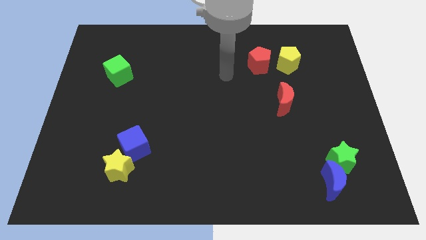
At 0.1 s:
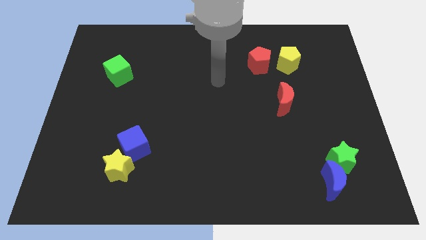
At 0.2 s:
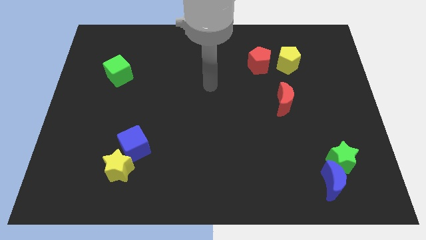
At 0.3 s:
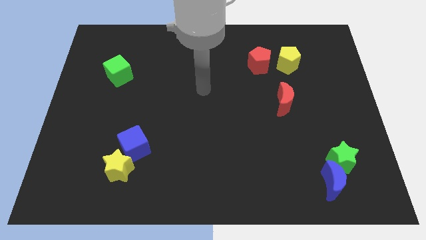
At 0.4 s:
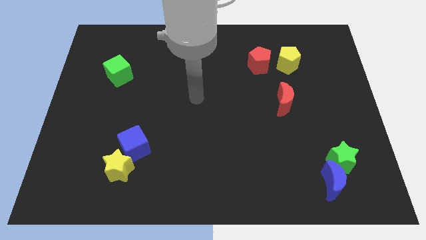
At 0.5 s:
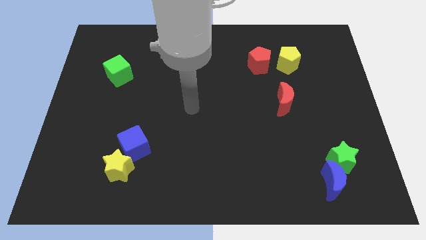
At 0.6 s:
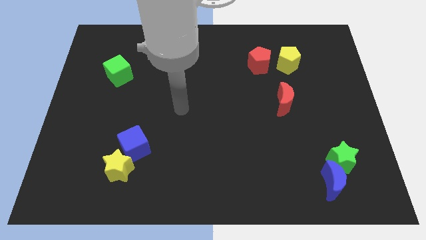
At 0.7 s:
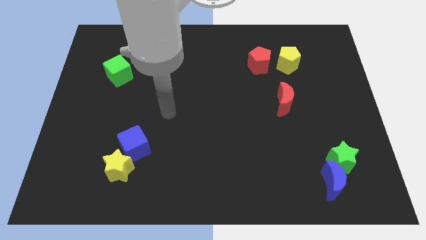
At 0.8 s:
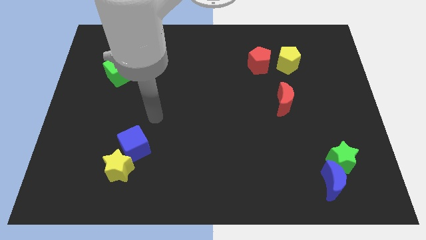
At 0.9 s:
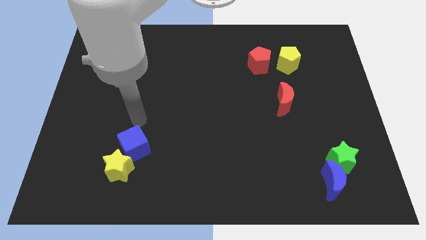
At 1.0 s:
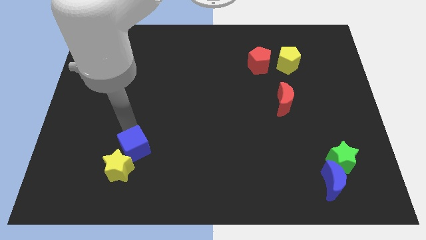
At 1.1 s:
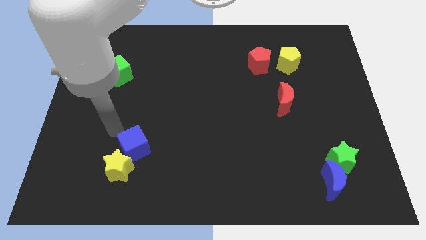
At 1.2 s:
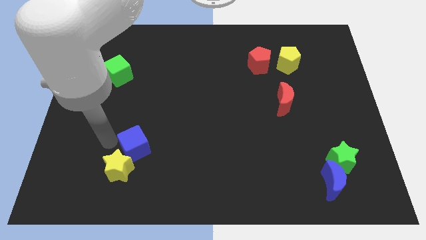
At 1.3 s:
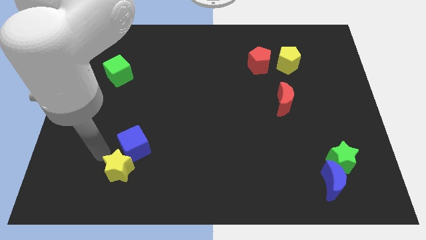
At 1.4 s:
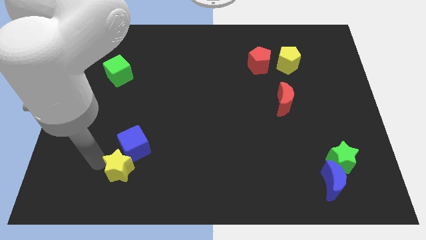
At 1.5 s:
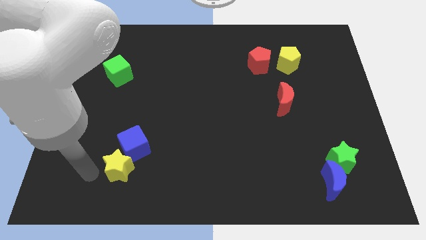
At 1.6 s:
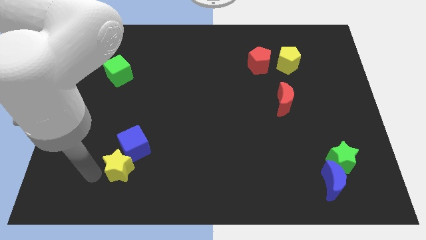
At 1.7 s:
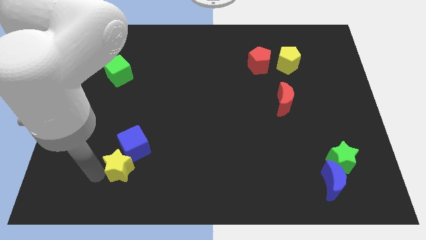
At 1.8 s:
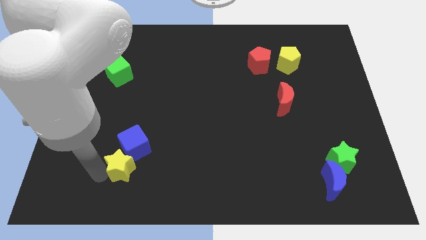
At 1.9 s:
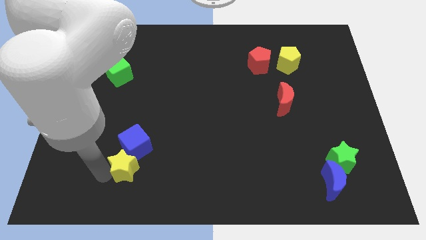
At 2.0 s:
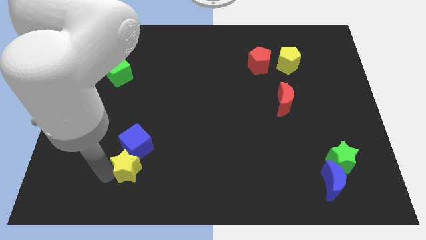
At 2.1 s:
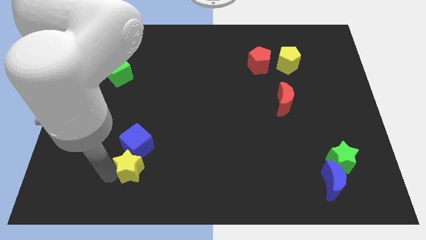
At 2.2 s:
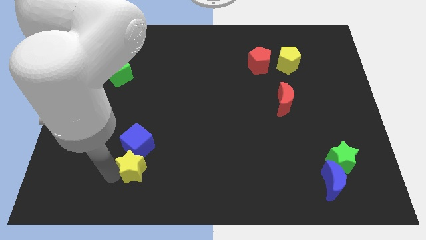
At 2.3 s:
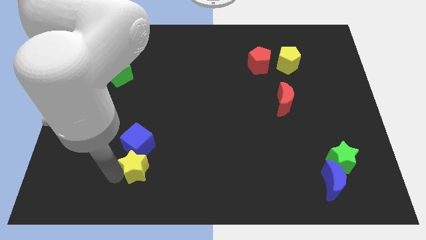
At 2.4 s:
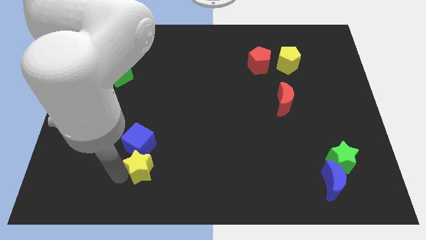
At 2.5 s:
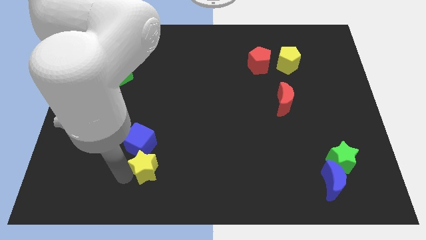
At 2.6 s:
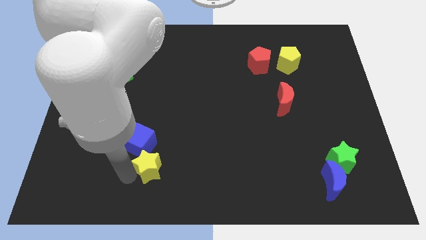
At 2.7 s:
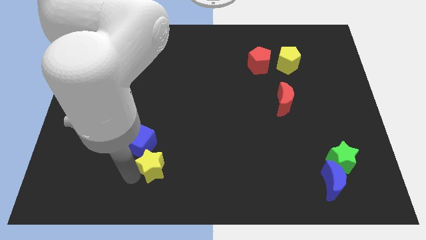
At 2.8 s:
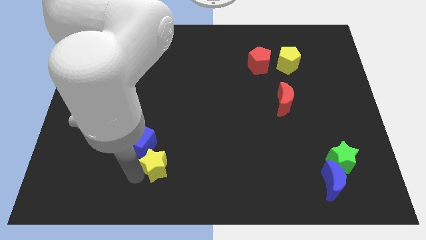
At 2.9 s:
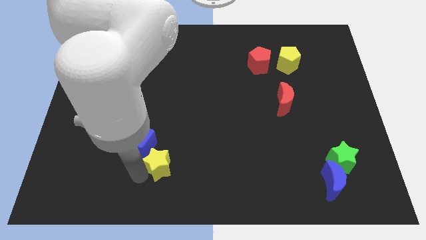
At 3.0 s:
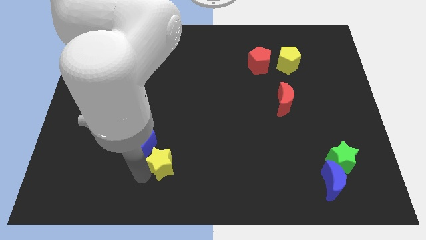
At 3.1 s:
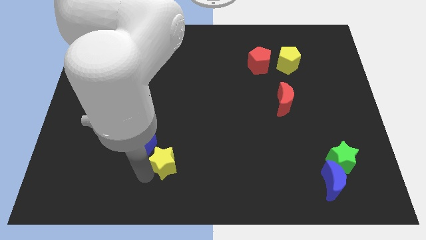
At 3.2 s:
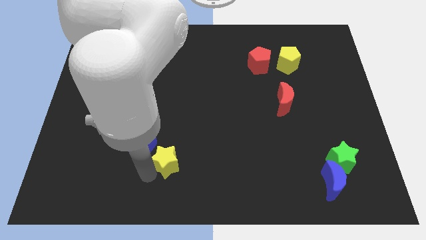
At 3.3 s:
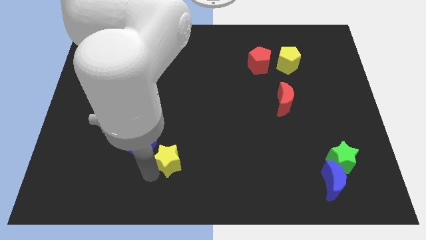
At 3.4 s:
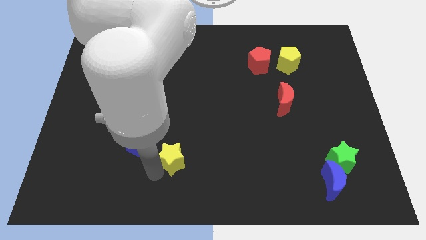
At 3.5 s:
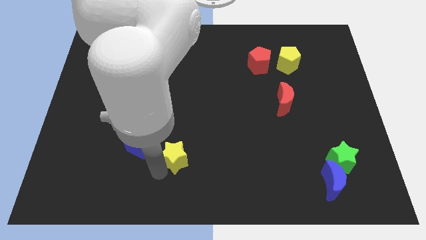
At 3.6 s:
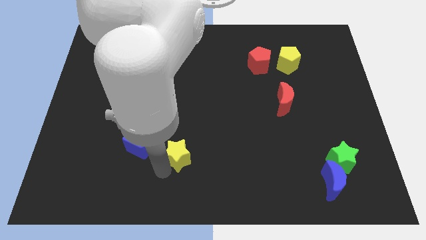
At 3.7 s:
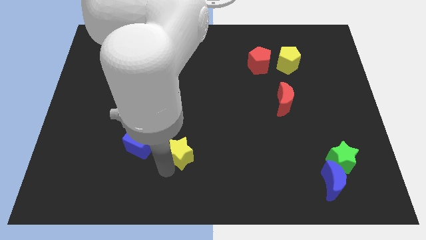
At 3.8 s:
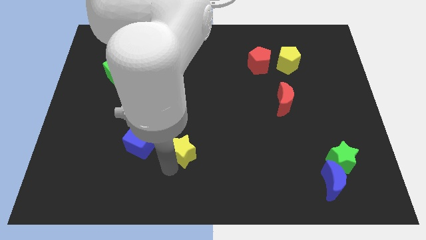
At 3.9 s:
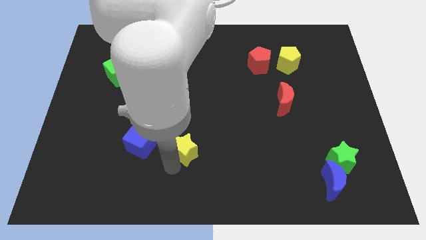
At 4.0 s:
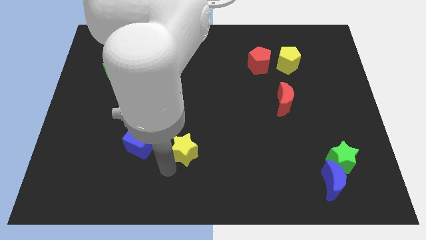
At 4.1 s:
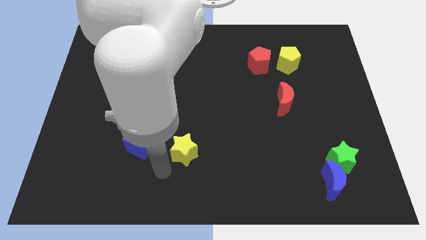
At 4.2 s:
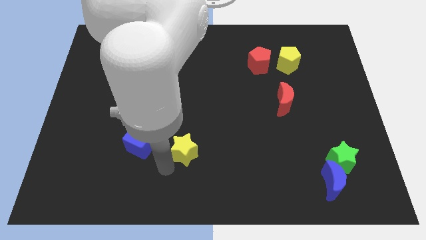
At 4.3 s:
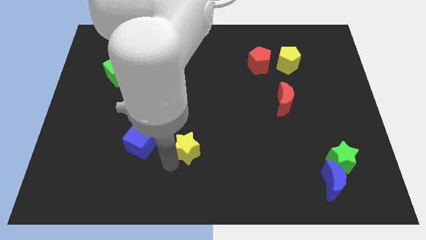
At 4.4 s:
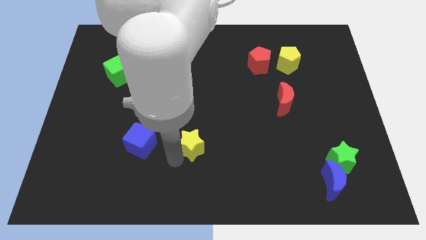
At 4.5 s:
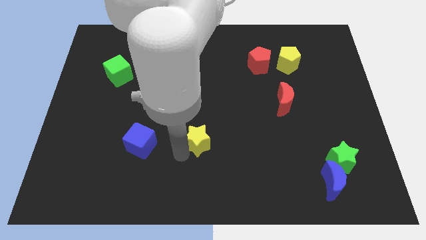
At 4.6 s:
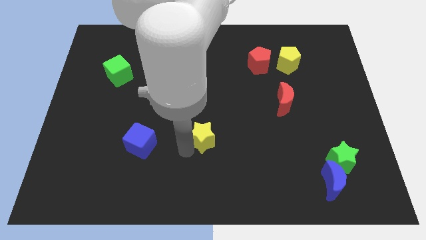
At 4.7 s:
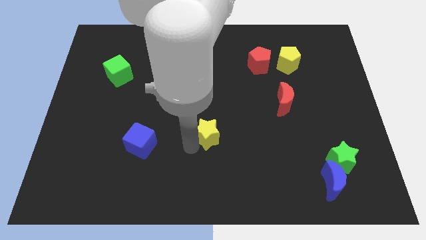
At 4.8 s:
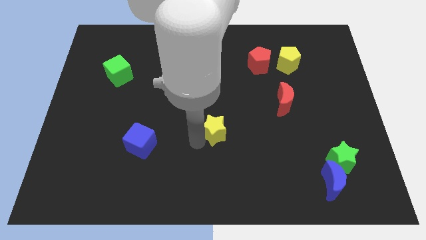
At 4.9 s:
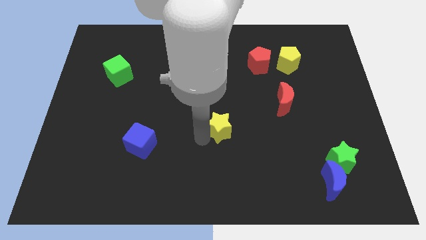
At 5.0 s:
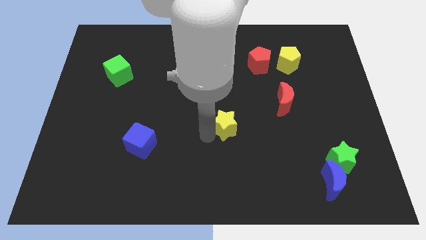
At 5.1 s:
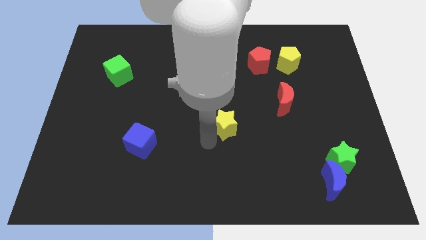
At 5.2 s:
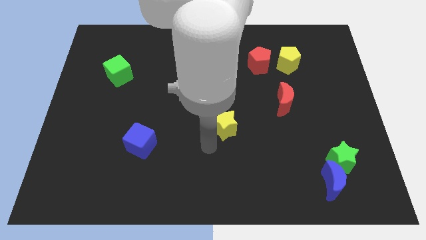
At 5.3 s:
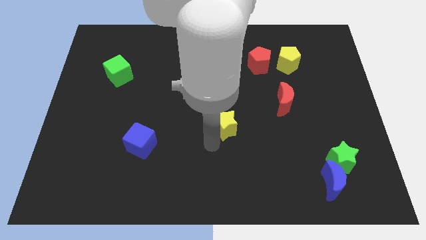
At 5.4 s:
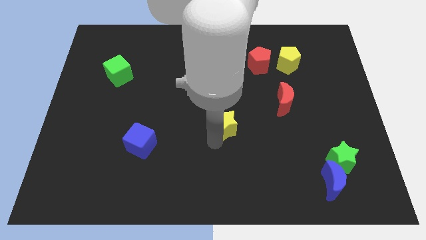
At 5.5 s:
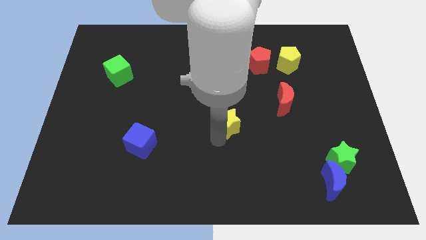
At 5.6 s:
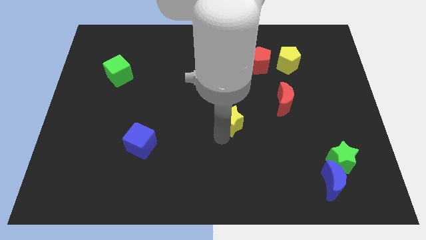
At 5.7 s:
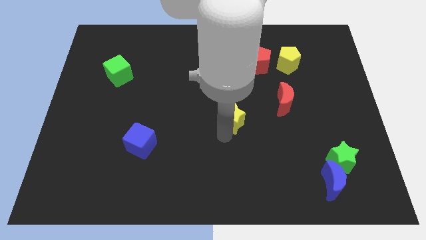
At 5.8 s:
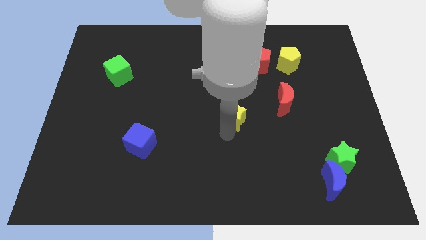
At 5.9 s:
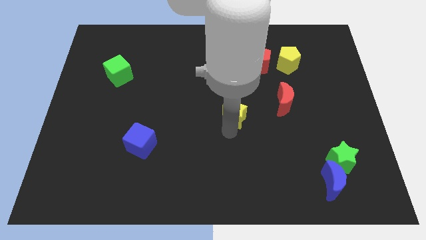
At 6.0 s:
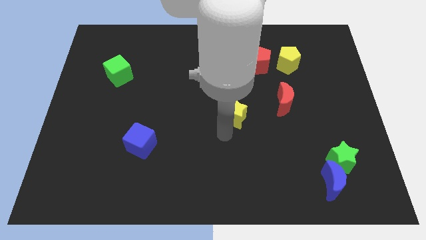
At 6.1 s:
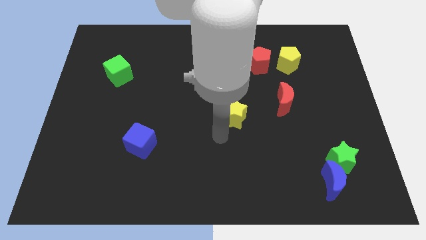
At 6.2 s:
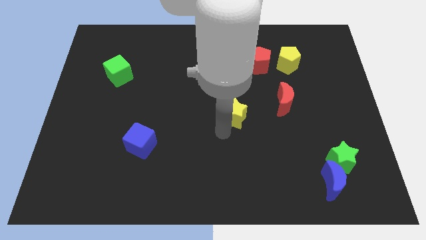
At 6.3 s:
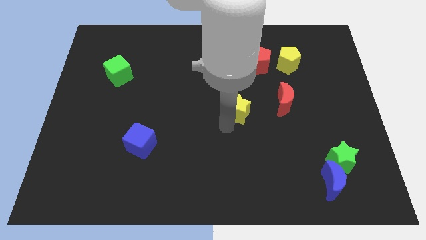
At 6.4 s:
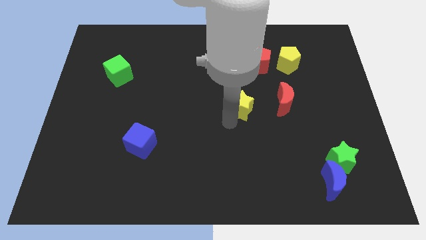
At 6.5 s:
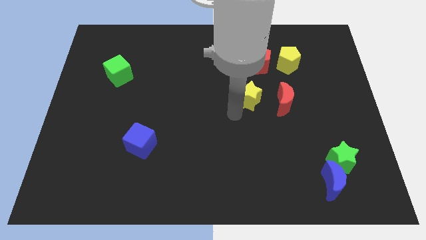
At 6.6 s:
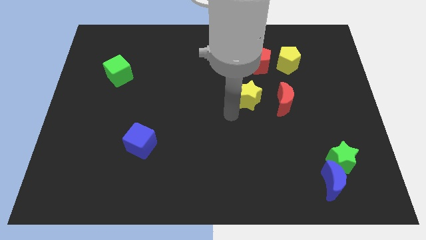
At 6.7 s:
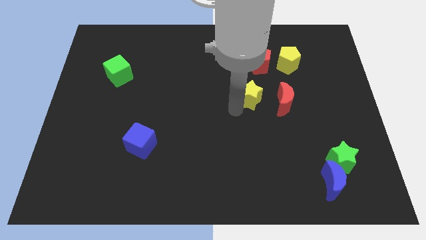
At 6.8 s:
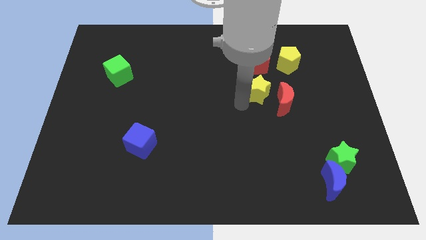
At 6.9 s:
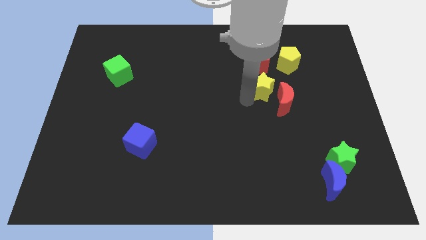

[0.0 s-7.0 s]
push the yellow star to the bottom left side of the yellow pentagon
